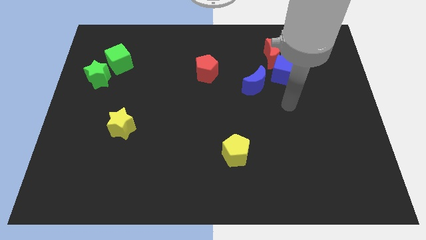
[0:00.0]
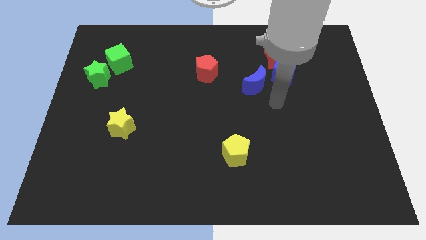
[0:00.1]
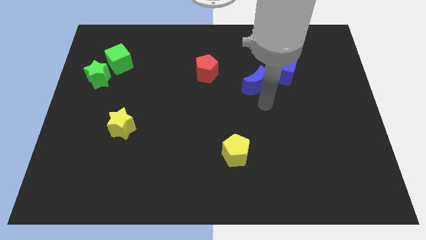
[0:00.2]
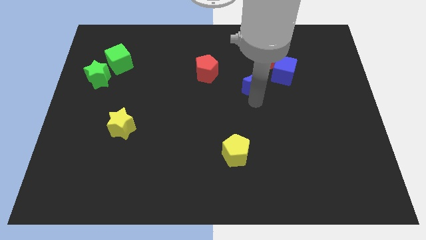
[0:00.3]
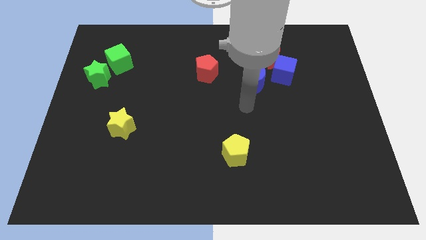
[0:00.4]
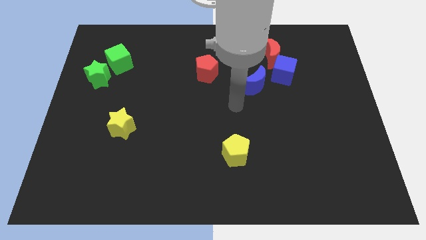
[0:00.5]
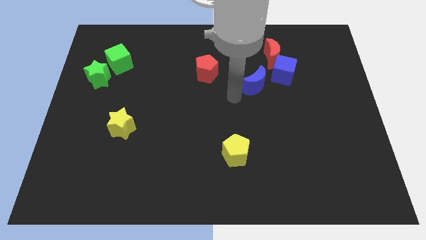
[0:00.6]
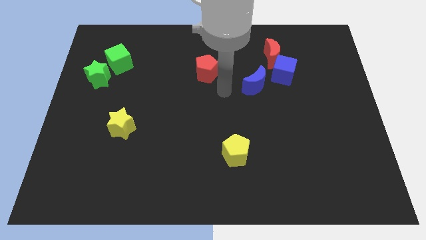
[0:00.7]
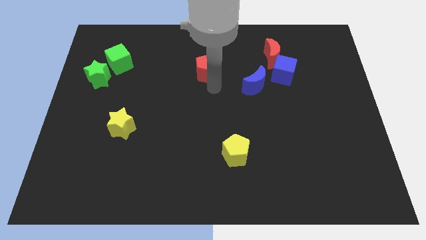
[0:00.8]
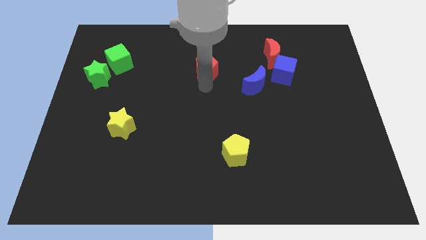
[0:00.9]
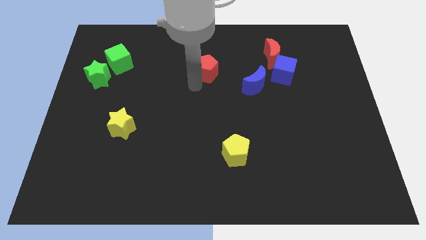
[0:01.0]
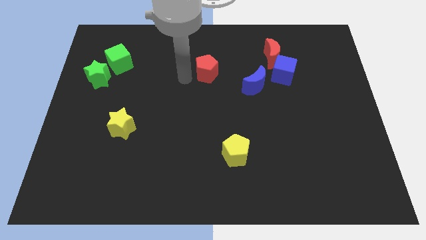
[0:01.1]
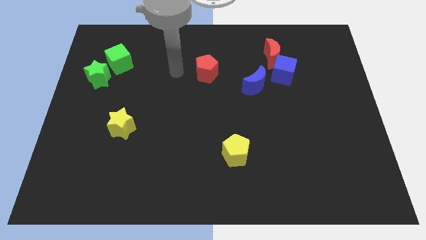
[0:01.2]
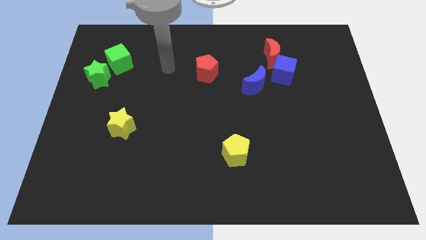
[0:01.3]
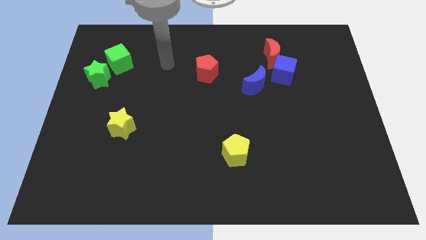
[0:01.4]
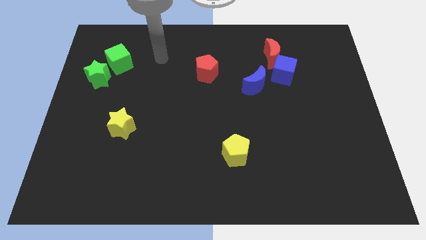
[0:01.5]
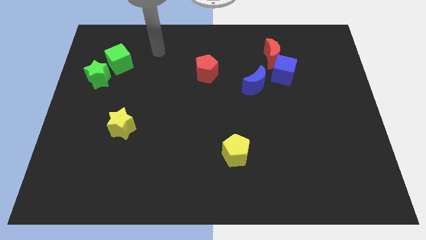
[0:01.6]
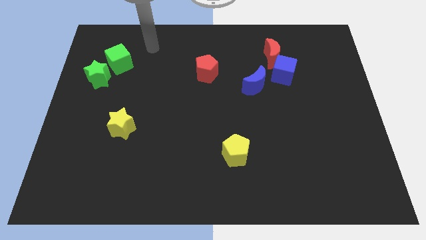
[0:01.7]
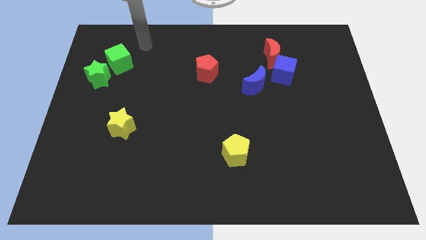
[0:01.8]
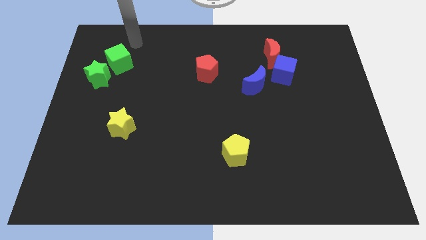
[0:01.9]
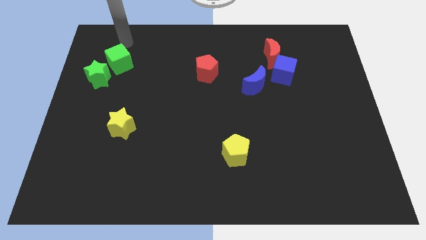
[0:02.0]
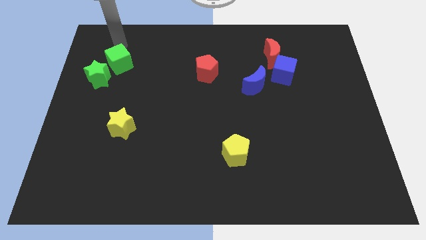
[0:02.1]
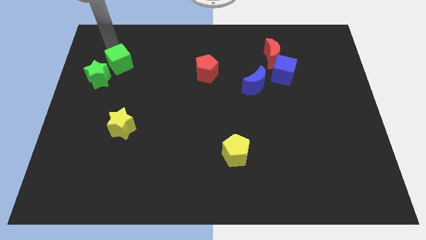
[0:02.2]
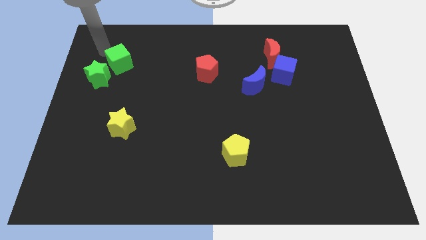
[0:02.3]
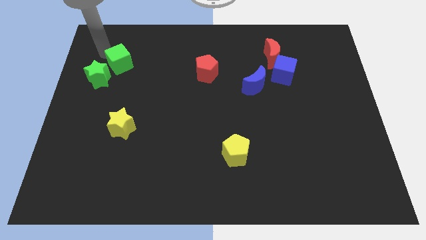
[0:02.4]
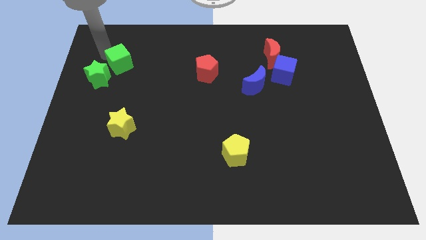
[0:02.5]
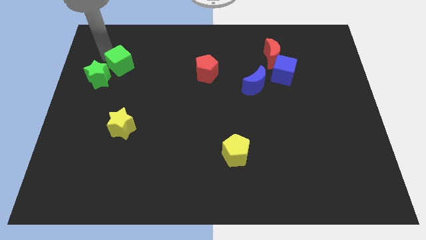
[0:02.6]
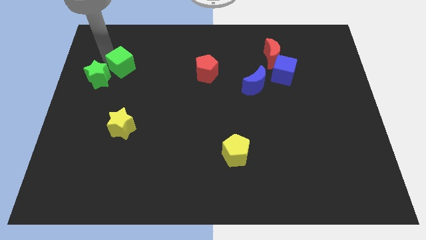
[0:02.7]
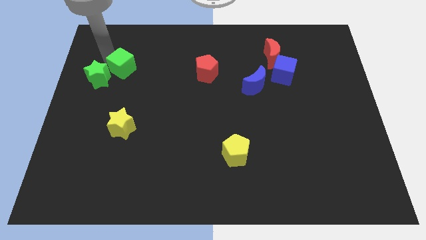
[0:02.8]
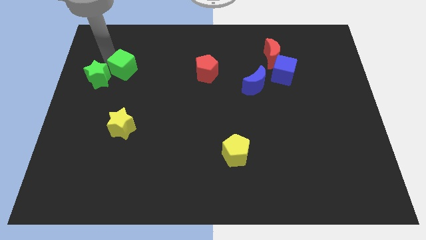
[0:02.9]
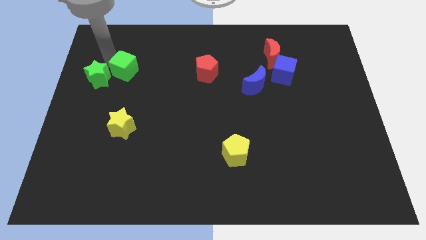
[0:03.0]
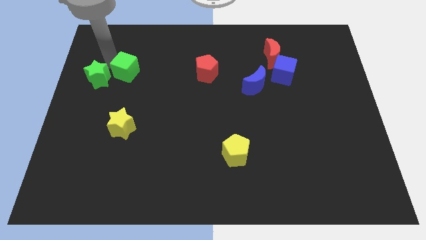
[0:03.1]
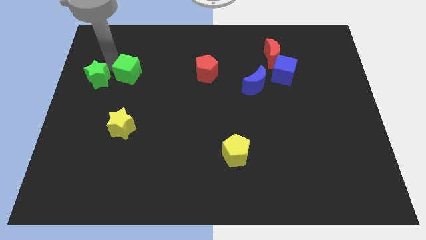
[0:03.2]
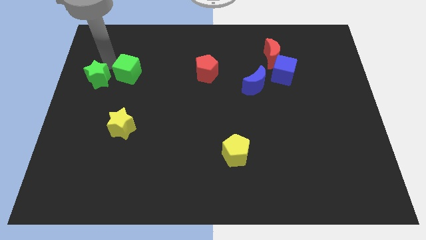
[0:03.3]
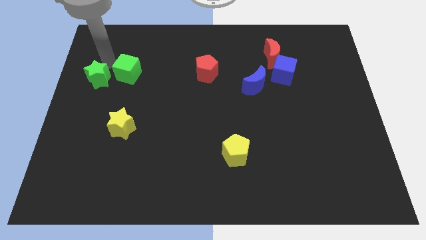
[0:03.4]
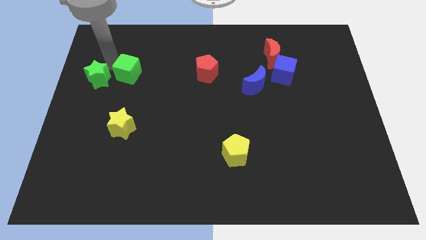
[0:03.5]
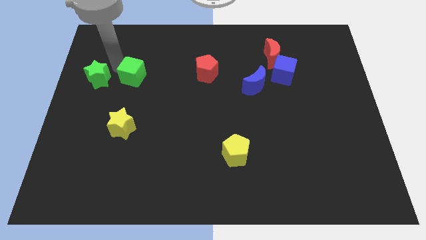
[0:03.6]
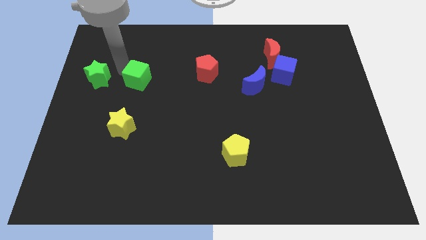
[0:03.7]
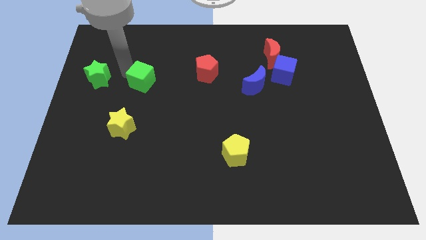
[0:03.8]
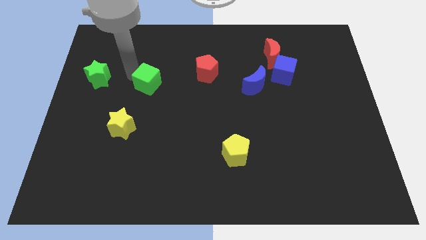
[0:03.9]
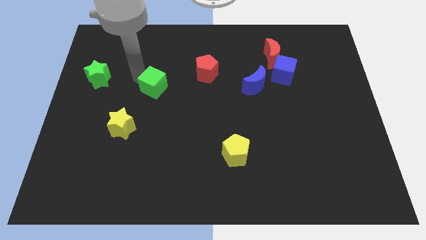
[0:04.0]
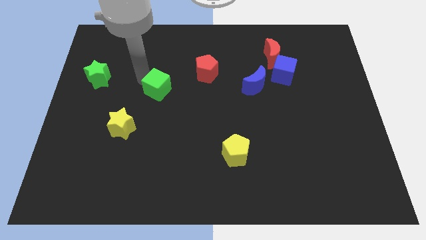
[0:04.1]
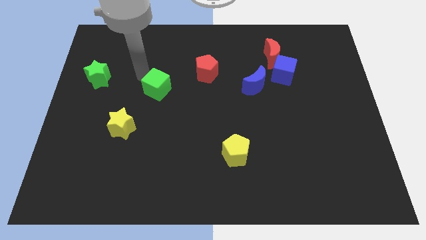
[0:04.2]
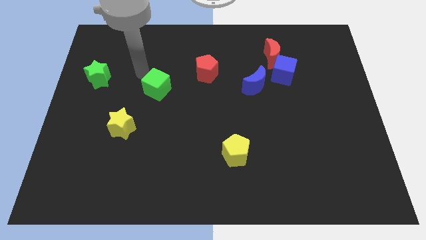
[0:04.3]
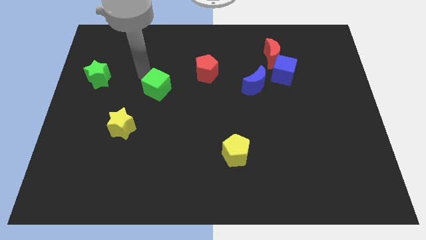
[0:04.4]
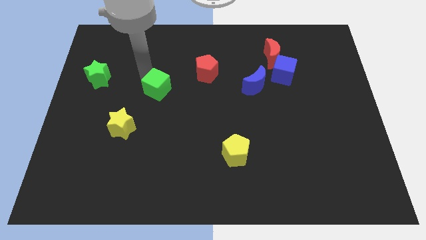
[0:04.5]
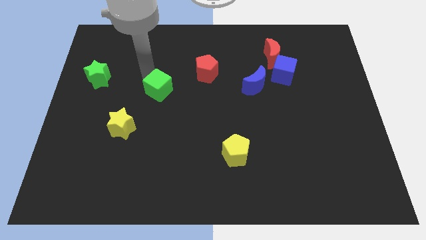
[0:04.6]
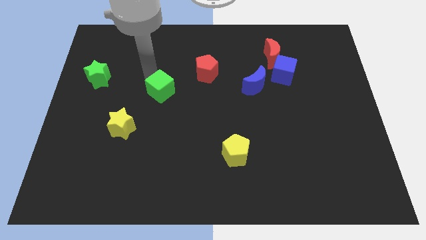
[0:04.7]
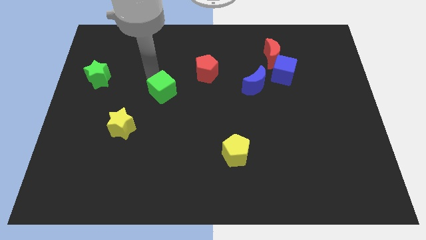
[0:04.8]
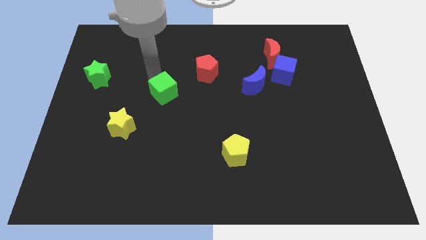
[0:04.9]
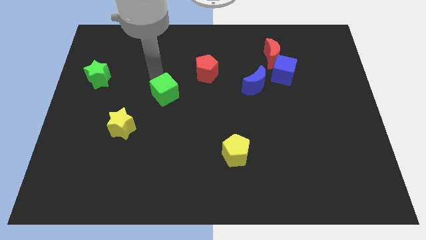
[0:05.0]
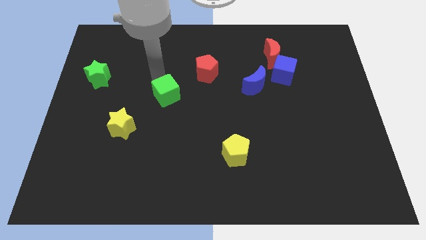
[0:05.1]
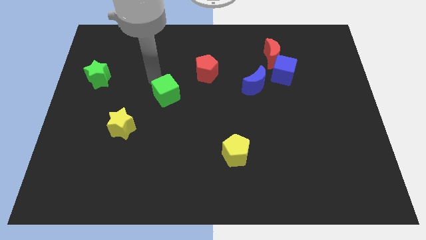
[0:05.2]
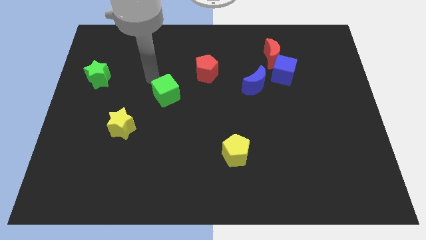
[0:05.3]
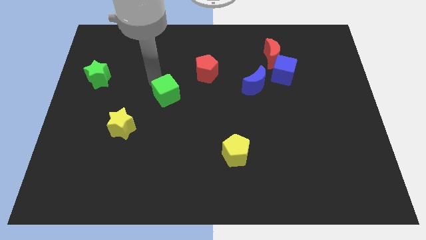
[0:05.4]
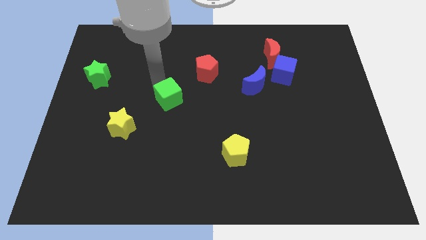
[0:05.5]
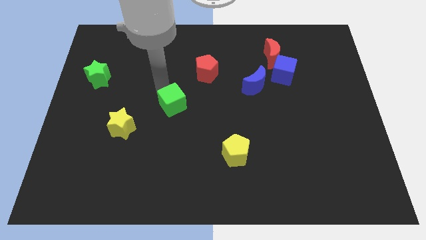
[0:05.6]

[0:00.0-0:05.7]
slide the green cube down and right

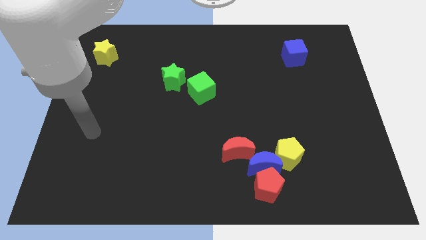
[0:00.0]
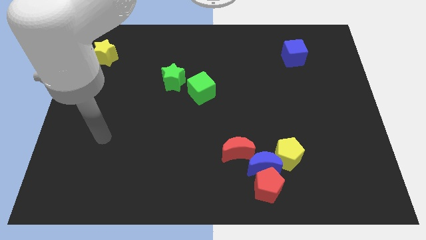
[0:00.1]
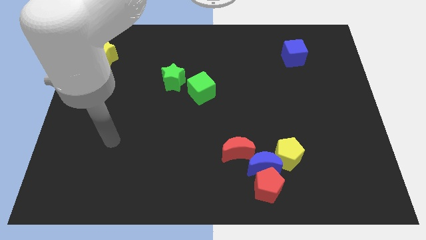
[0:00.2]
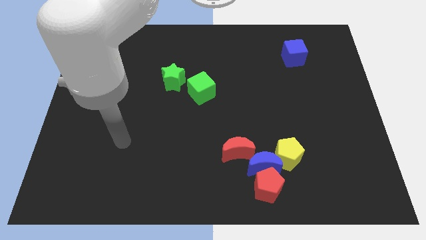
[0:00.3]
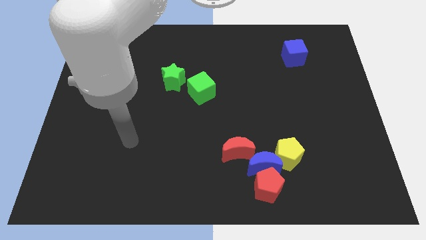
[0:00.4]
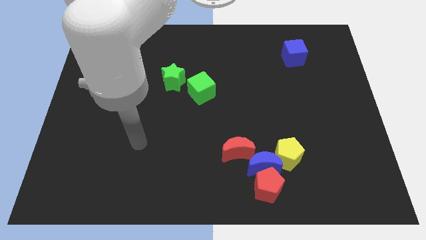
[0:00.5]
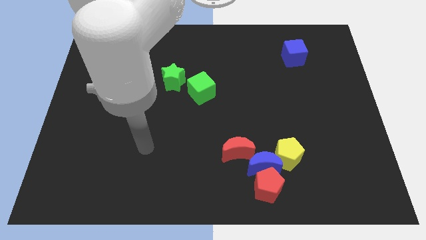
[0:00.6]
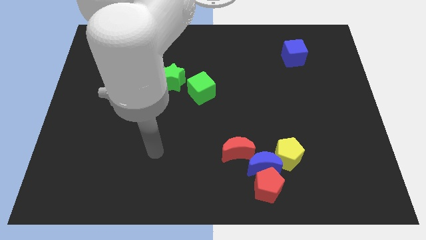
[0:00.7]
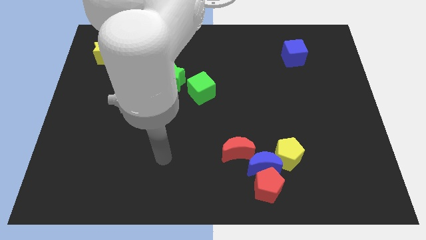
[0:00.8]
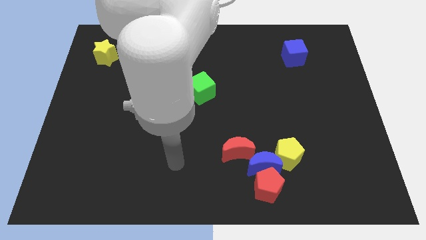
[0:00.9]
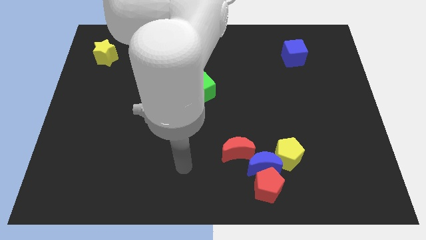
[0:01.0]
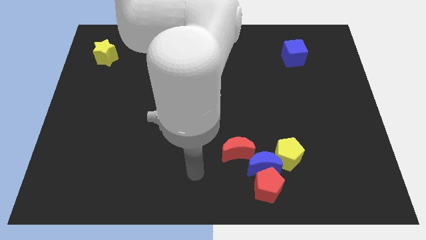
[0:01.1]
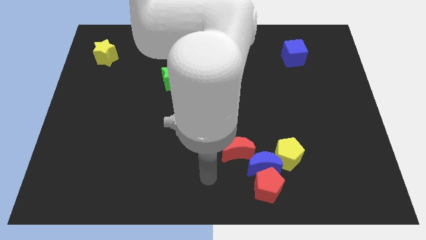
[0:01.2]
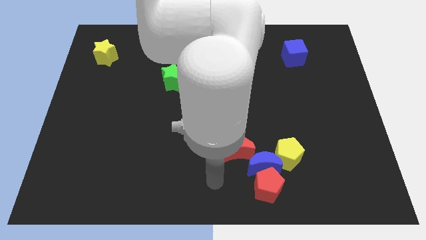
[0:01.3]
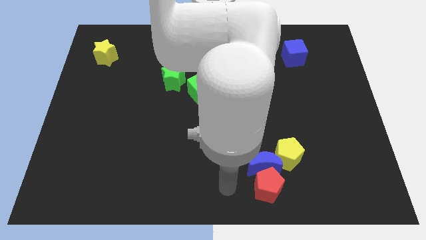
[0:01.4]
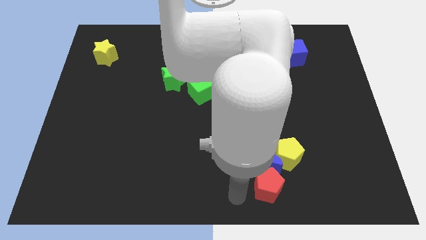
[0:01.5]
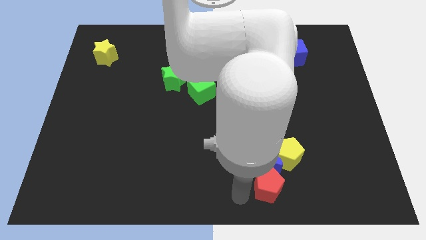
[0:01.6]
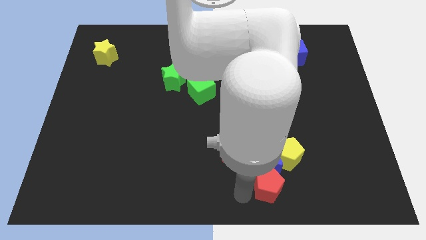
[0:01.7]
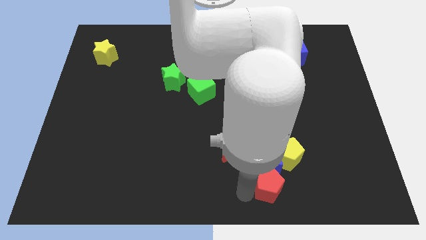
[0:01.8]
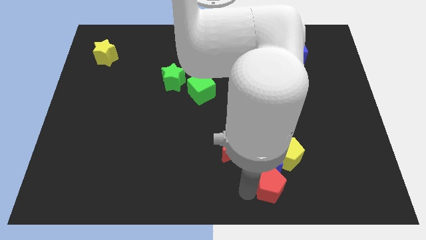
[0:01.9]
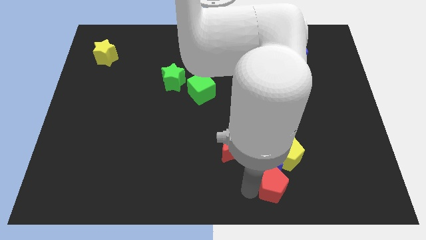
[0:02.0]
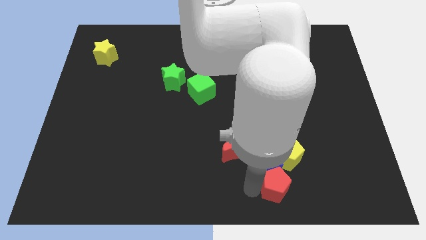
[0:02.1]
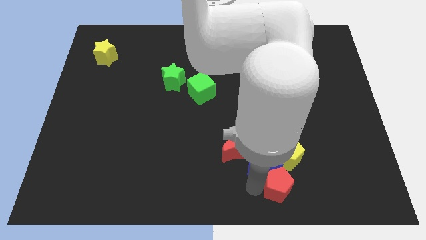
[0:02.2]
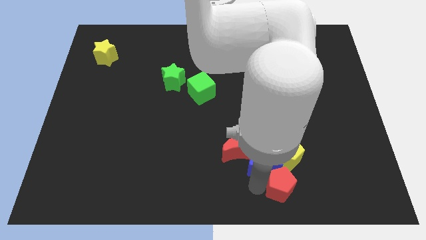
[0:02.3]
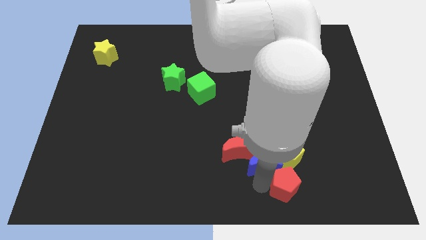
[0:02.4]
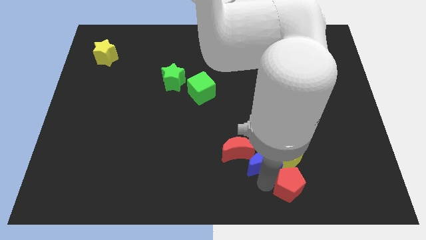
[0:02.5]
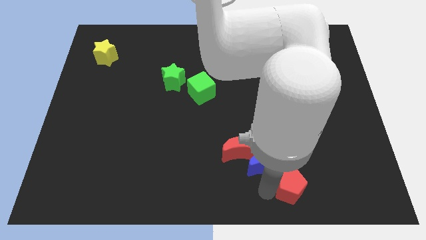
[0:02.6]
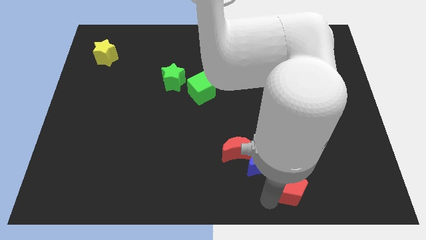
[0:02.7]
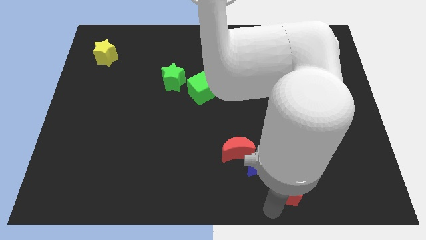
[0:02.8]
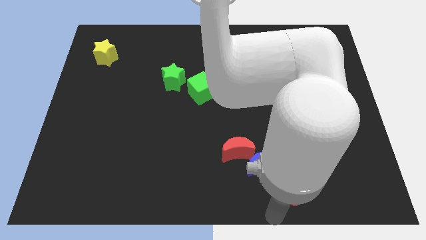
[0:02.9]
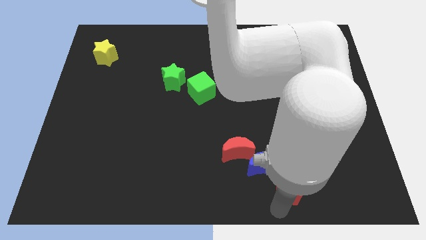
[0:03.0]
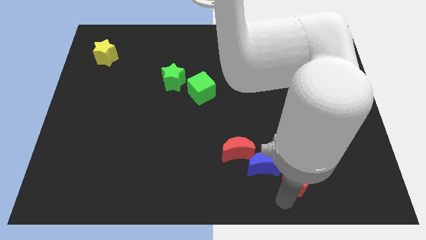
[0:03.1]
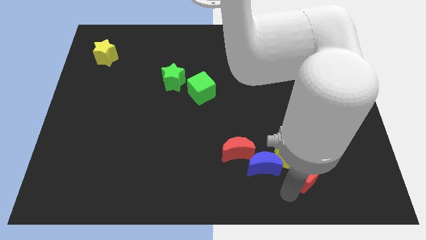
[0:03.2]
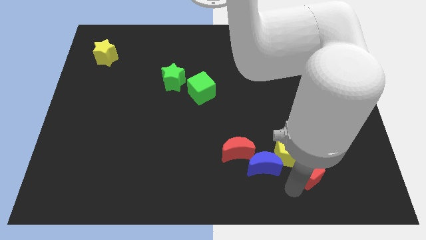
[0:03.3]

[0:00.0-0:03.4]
slide the red pentagon up and to the right diagonally somewhat
